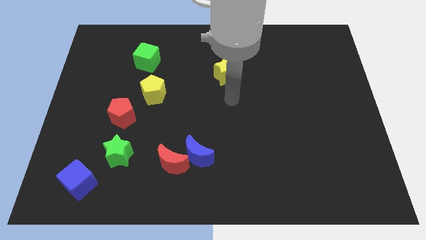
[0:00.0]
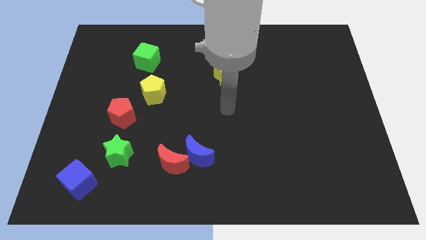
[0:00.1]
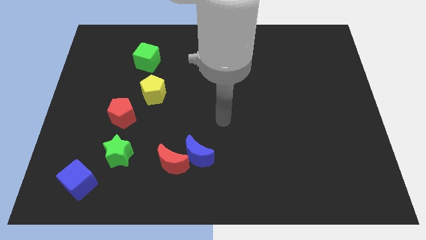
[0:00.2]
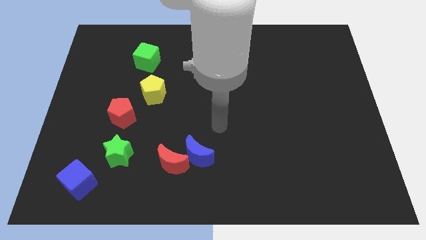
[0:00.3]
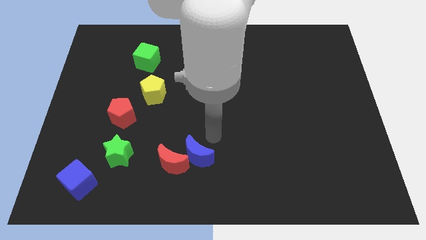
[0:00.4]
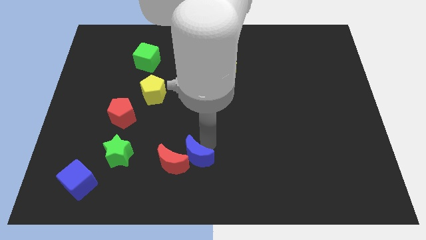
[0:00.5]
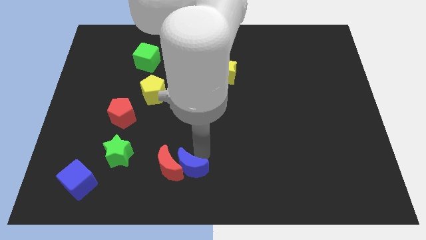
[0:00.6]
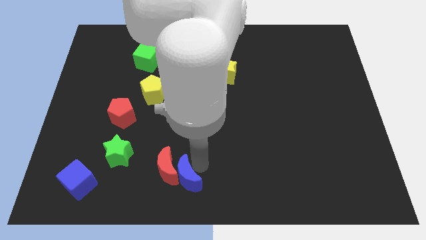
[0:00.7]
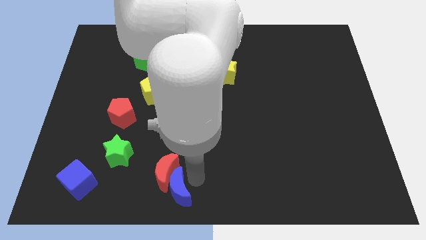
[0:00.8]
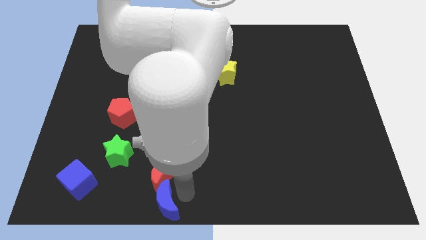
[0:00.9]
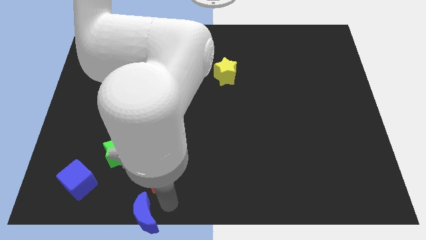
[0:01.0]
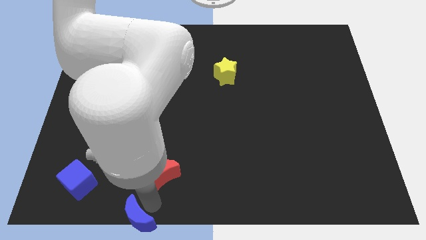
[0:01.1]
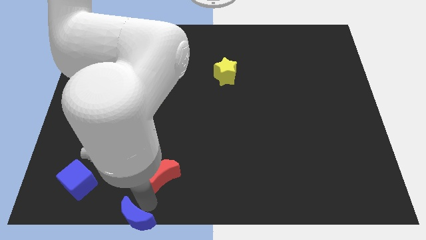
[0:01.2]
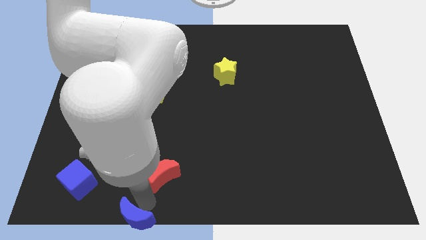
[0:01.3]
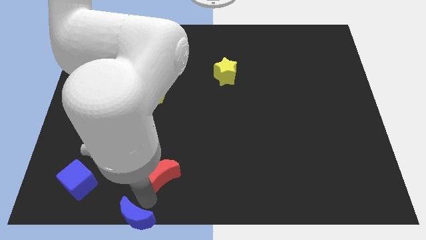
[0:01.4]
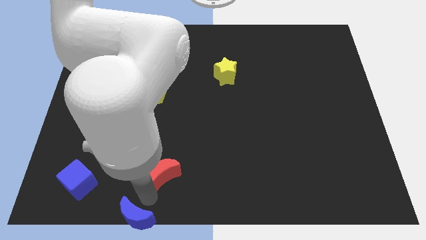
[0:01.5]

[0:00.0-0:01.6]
separate the red moon from the blue moon

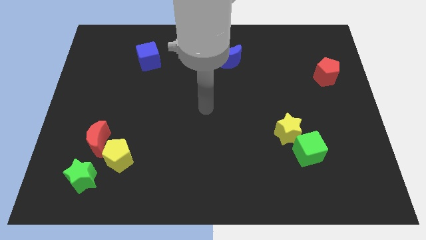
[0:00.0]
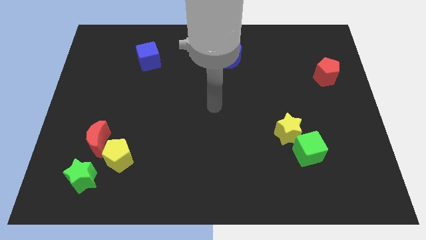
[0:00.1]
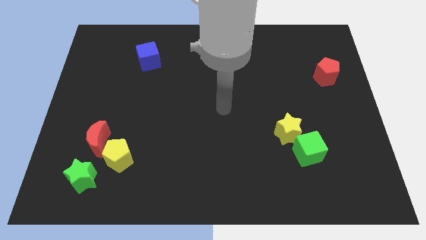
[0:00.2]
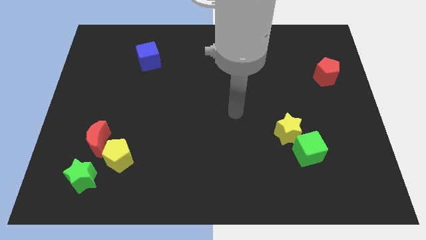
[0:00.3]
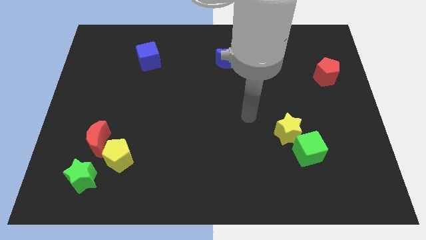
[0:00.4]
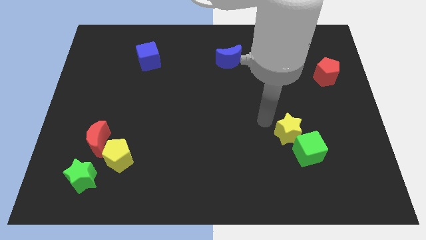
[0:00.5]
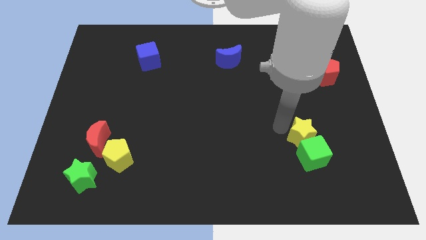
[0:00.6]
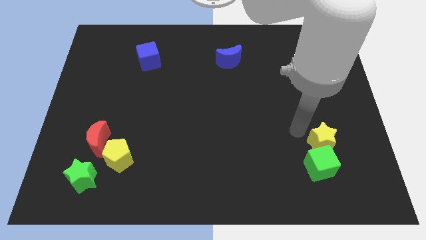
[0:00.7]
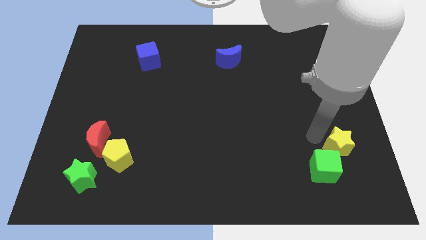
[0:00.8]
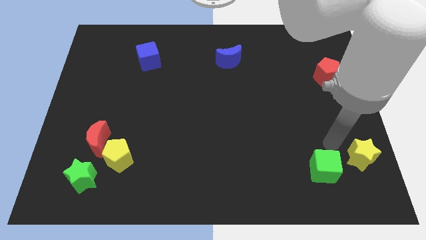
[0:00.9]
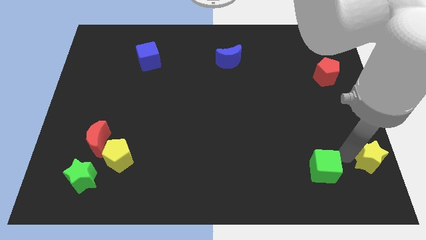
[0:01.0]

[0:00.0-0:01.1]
pull the green cube apart from the yellow star

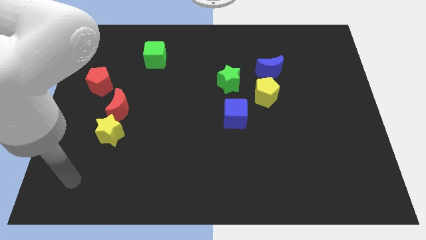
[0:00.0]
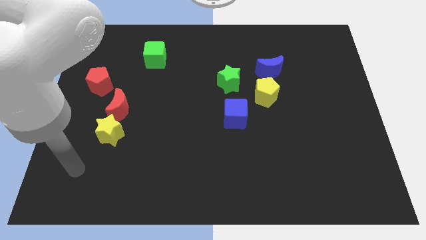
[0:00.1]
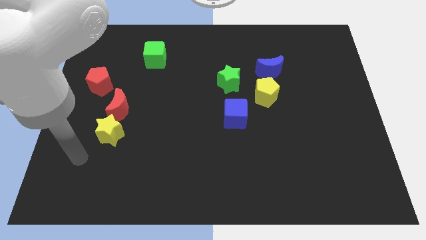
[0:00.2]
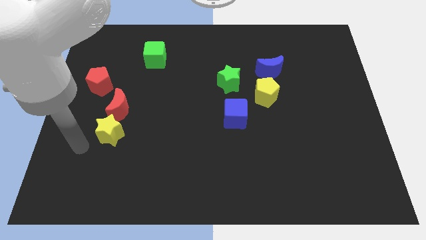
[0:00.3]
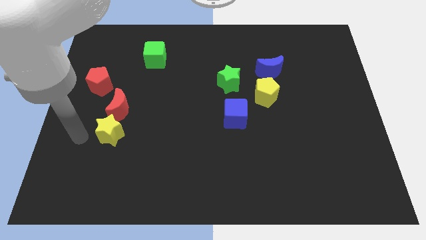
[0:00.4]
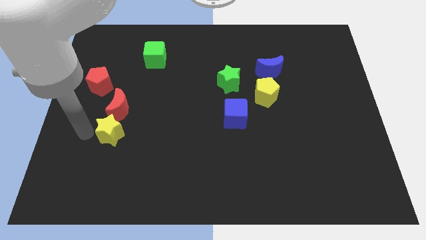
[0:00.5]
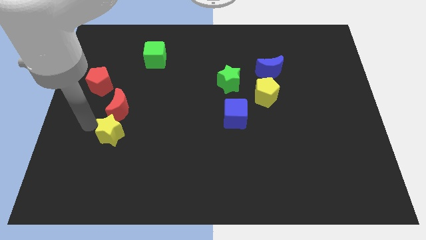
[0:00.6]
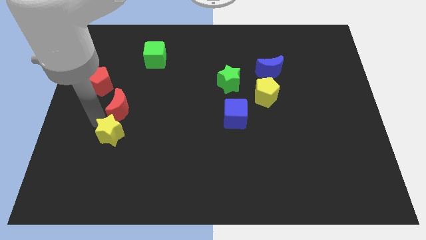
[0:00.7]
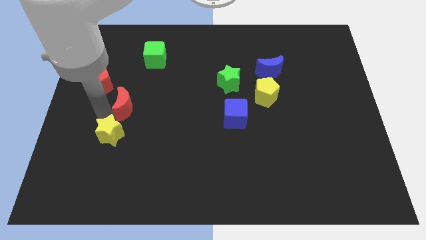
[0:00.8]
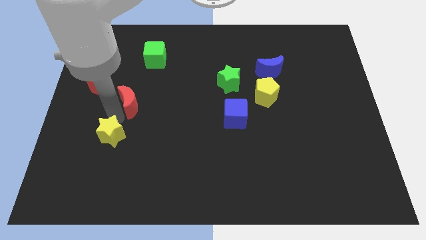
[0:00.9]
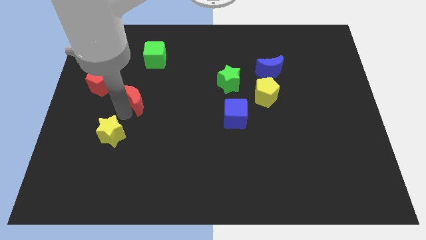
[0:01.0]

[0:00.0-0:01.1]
pull the yellow star apart from the red moon

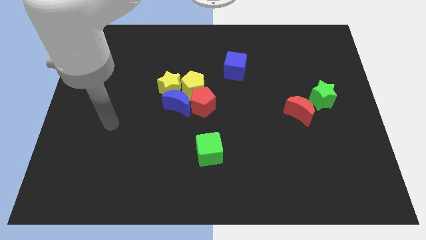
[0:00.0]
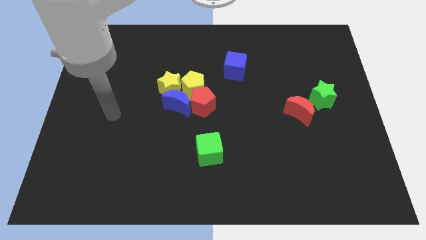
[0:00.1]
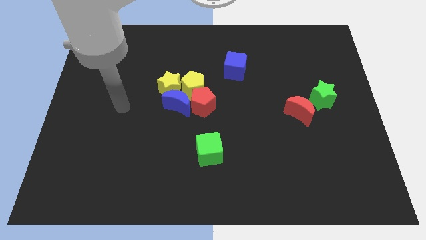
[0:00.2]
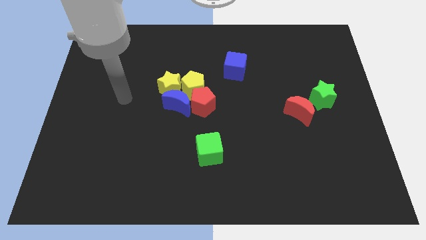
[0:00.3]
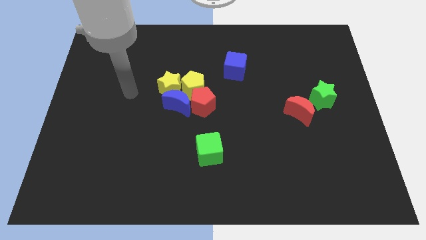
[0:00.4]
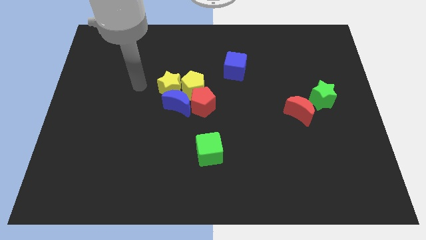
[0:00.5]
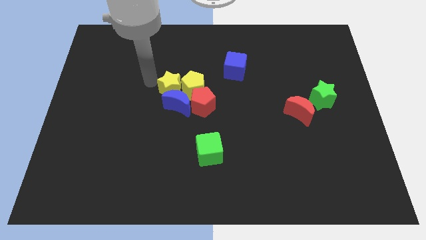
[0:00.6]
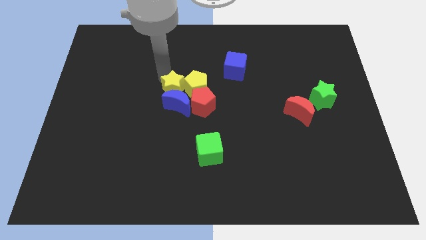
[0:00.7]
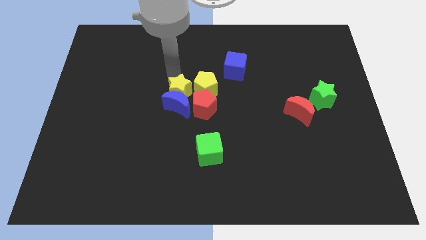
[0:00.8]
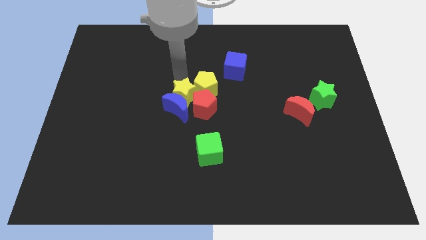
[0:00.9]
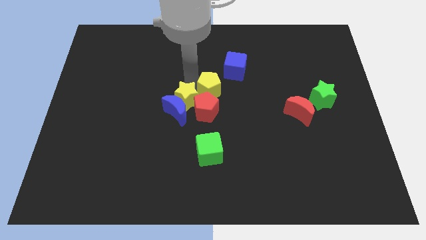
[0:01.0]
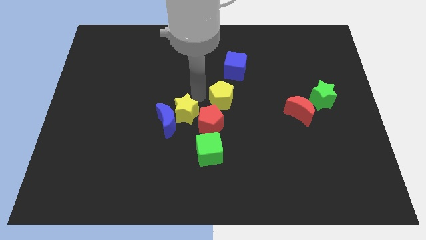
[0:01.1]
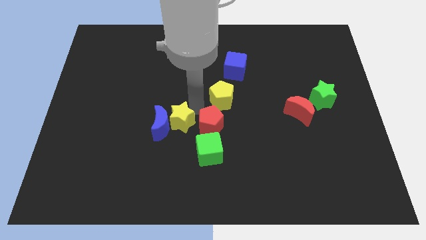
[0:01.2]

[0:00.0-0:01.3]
separate the blue moon from the yellow star, red pentagon, and yellow pentagon

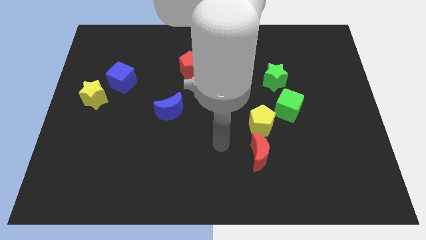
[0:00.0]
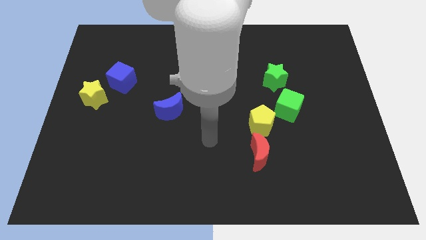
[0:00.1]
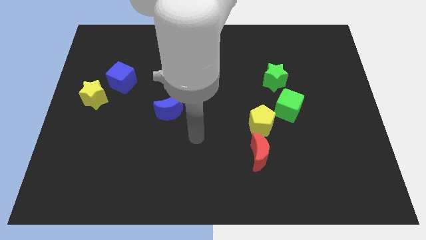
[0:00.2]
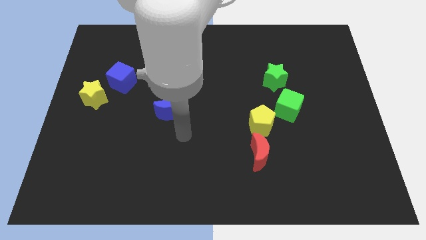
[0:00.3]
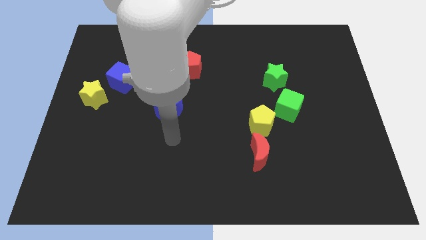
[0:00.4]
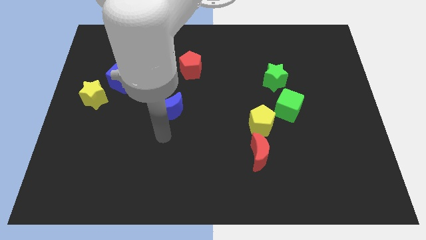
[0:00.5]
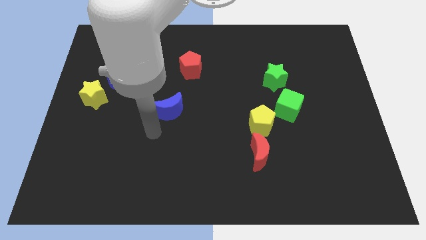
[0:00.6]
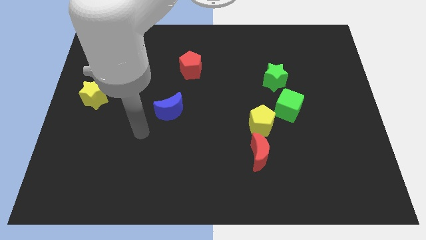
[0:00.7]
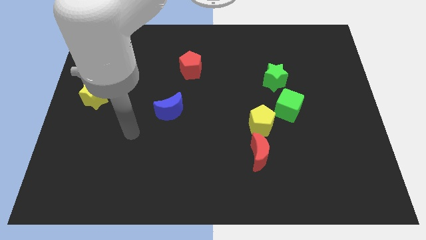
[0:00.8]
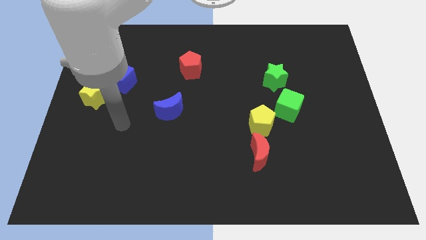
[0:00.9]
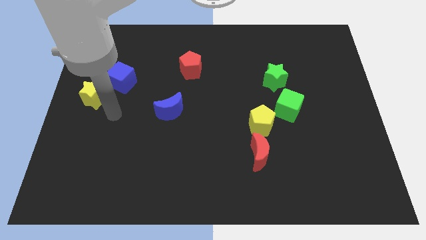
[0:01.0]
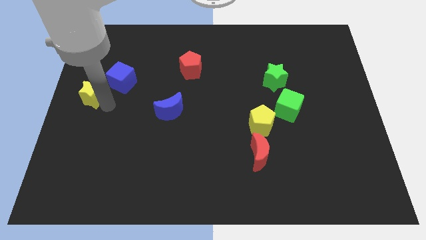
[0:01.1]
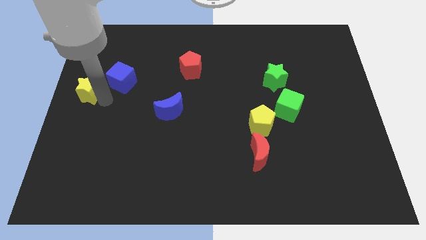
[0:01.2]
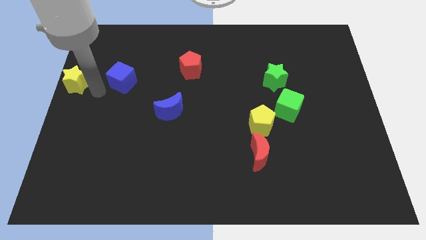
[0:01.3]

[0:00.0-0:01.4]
move the blue cube away from the yellow star

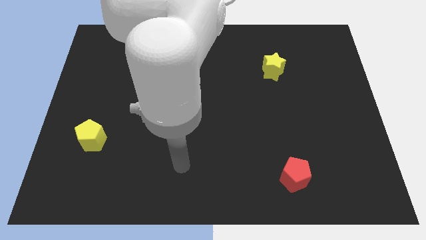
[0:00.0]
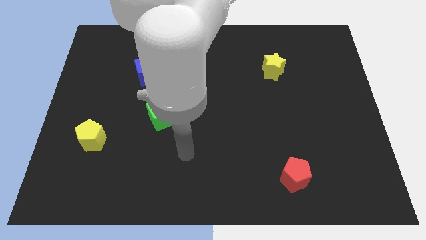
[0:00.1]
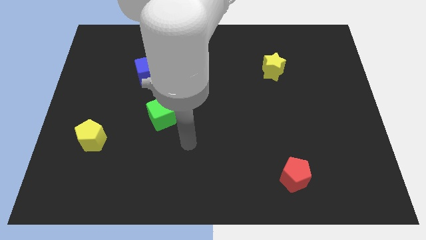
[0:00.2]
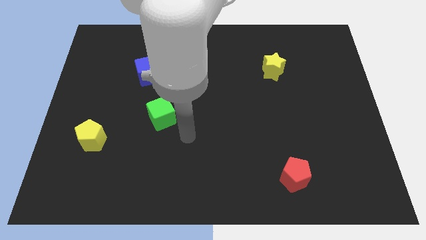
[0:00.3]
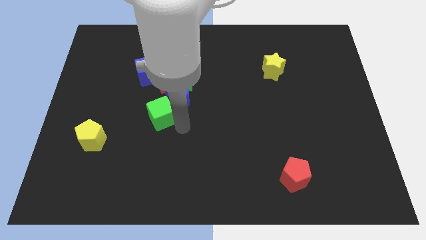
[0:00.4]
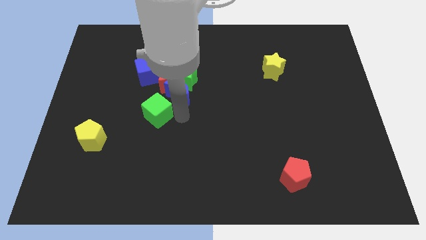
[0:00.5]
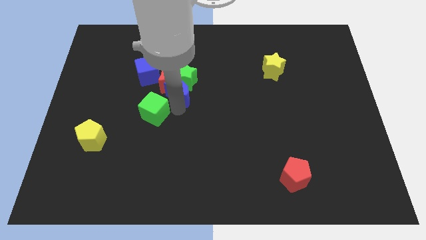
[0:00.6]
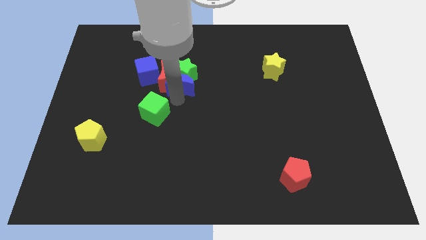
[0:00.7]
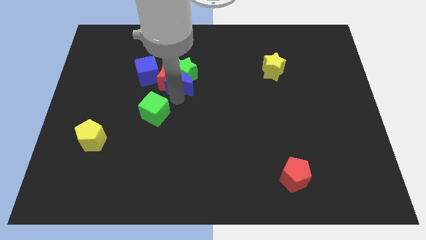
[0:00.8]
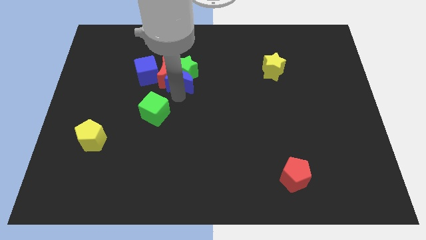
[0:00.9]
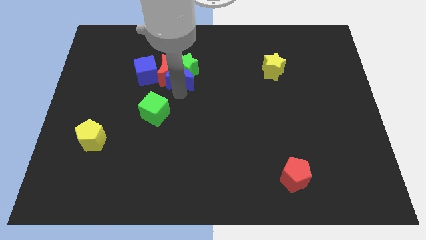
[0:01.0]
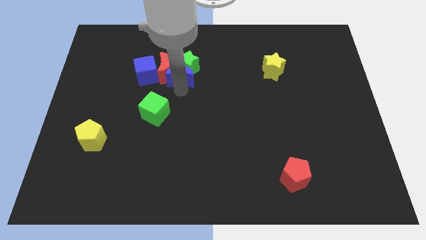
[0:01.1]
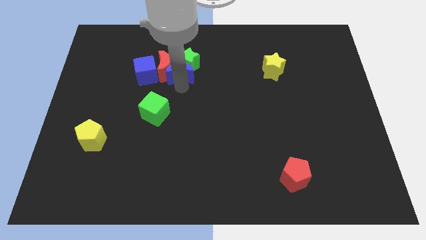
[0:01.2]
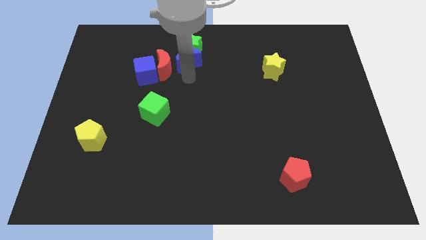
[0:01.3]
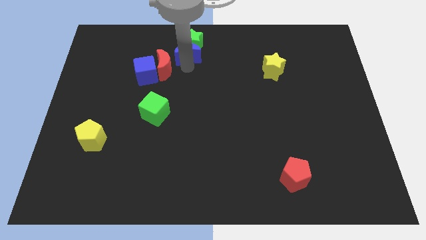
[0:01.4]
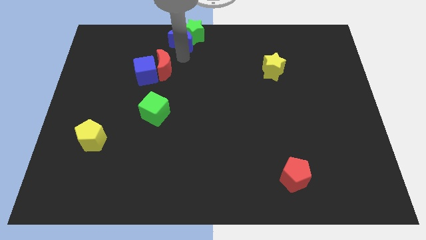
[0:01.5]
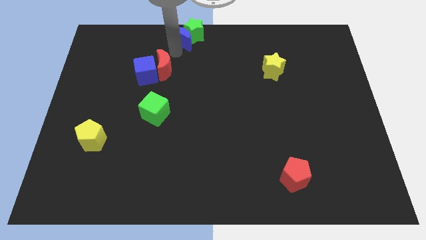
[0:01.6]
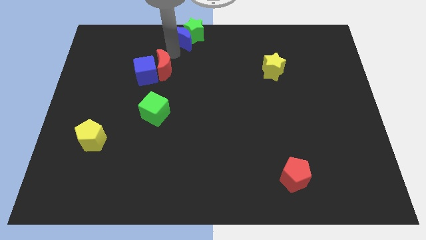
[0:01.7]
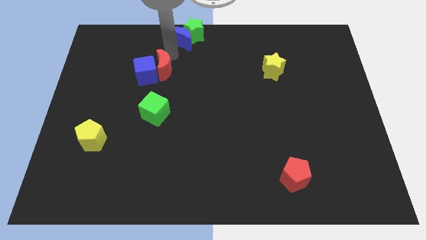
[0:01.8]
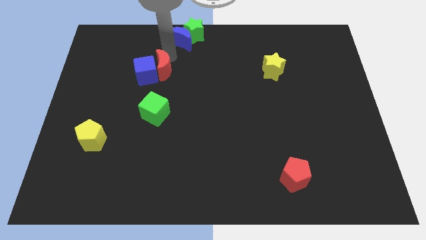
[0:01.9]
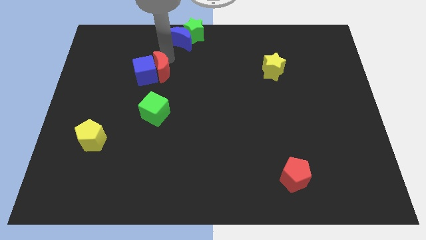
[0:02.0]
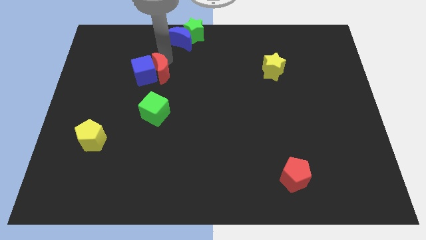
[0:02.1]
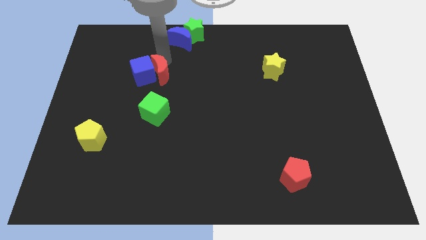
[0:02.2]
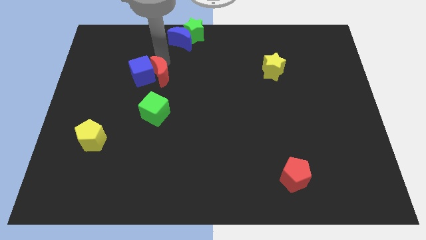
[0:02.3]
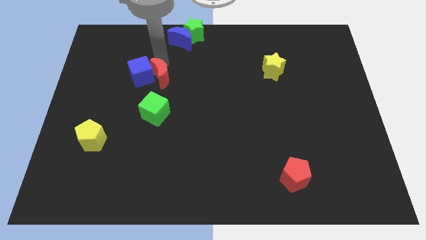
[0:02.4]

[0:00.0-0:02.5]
pull the red moon apart from the green star, blue cube, and blue moon

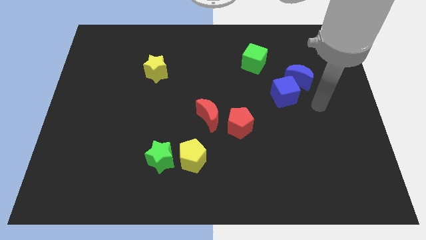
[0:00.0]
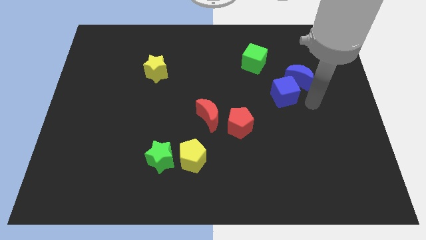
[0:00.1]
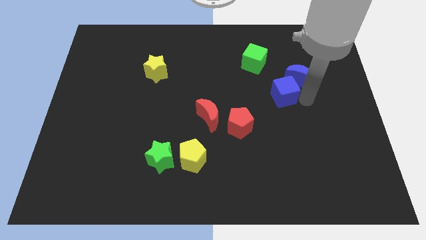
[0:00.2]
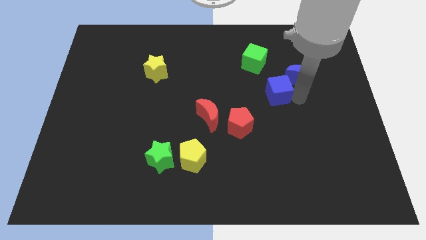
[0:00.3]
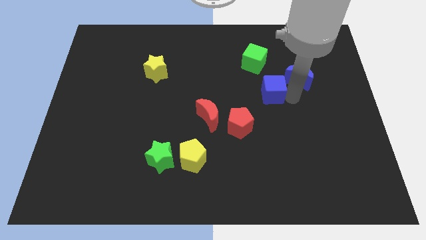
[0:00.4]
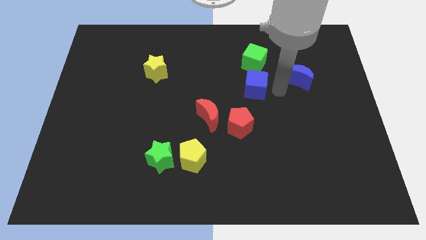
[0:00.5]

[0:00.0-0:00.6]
pull the blue moon apart from the blue cube
